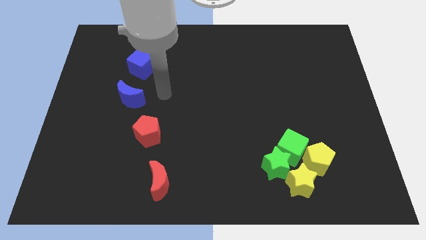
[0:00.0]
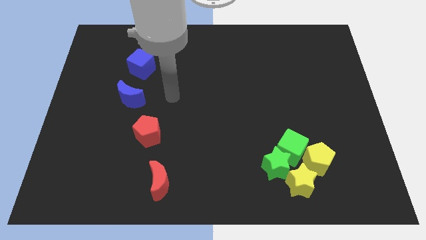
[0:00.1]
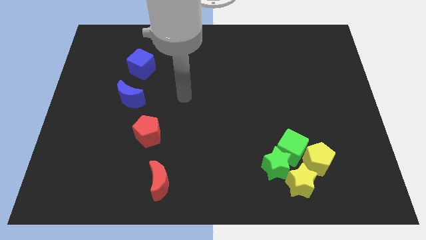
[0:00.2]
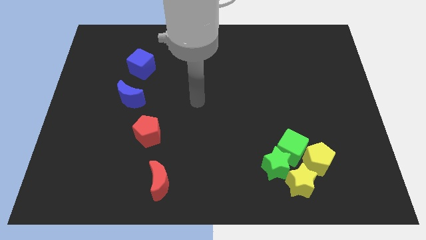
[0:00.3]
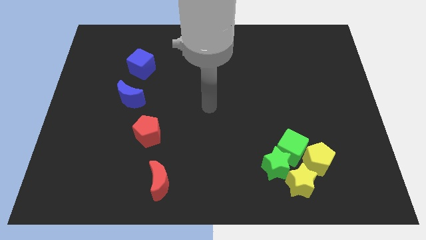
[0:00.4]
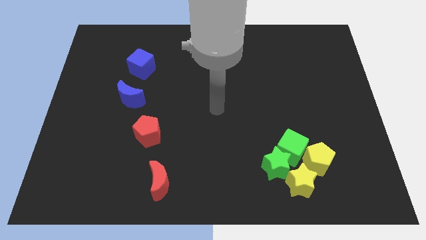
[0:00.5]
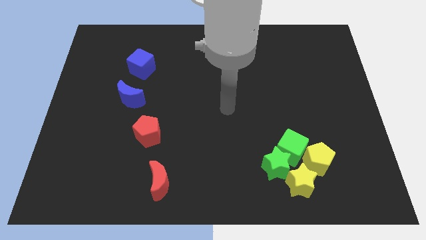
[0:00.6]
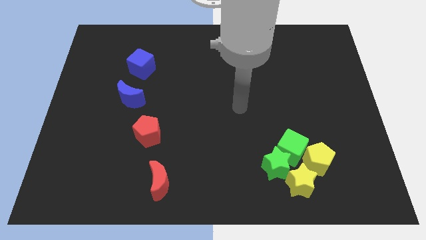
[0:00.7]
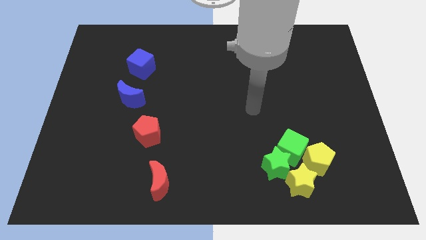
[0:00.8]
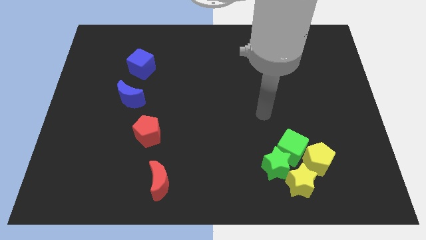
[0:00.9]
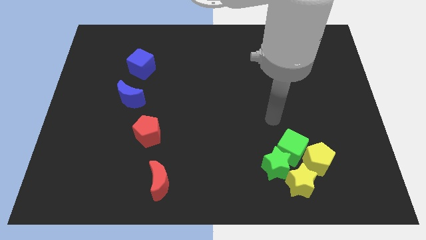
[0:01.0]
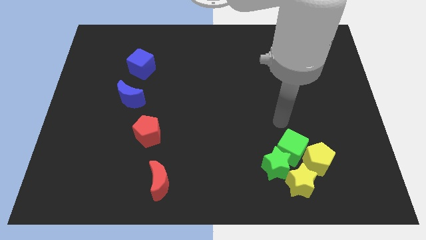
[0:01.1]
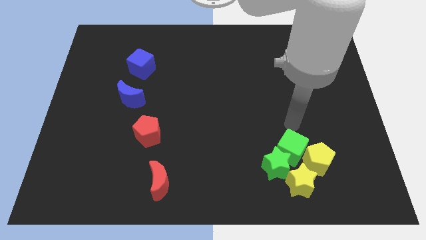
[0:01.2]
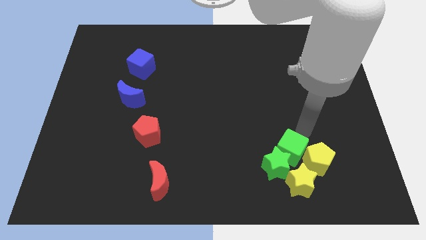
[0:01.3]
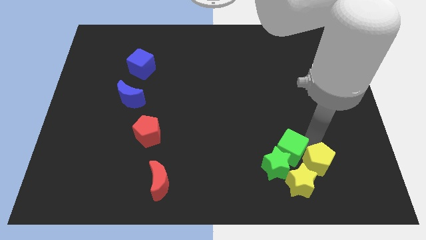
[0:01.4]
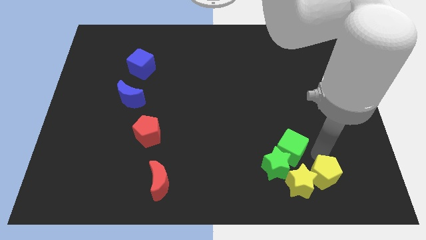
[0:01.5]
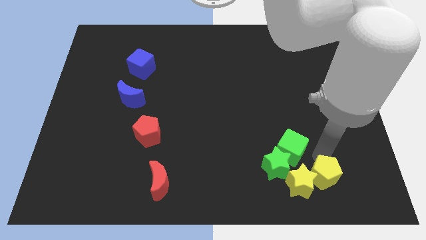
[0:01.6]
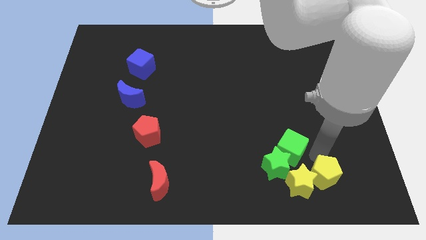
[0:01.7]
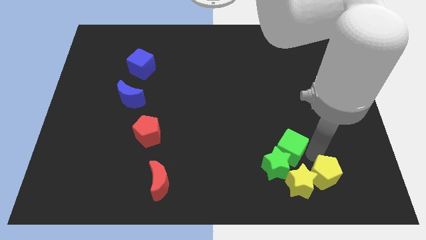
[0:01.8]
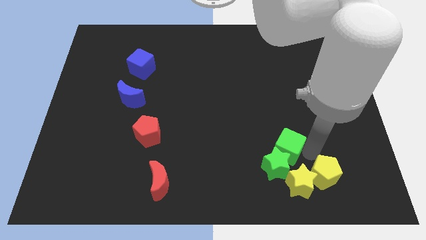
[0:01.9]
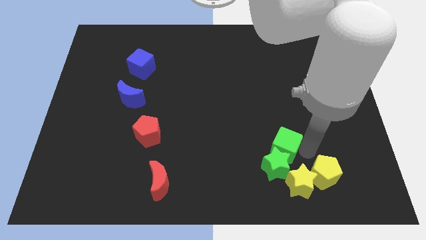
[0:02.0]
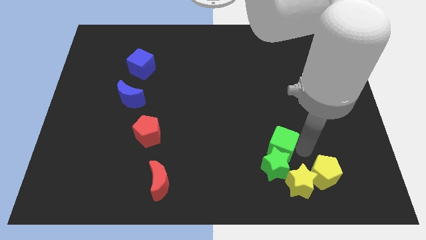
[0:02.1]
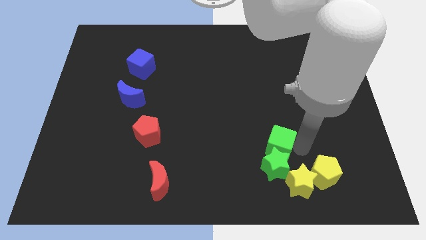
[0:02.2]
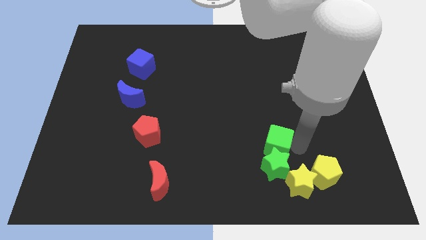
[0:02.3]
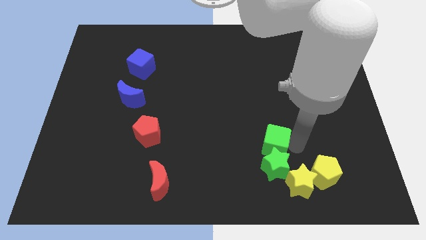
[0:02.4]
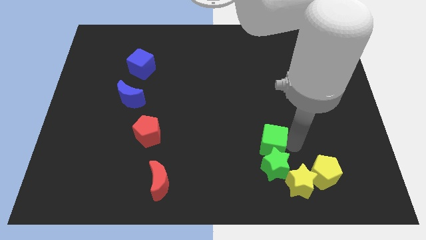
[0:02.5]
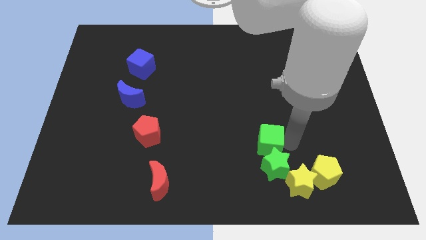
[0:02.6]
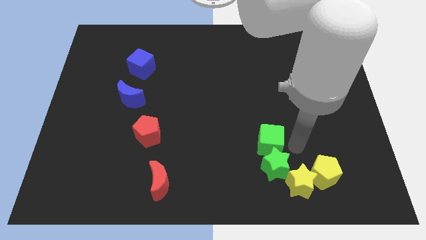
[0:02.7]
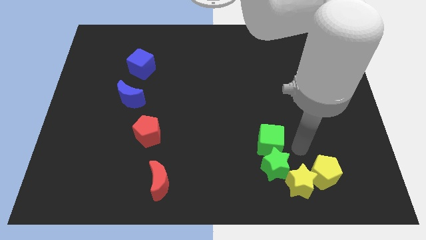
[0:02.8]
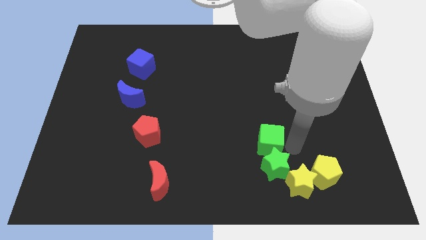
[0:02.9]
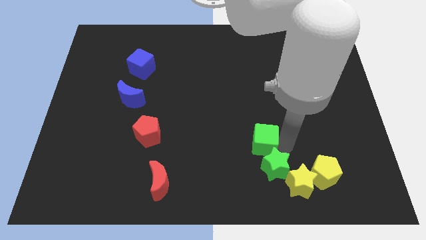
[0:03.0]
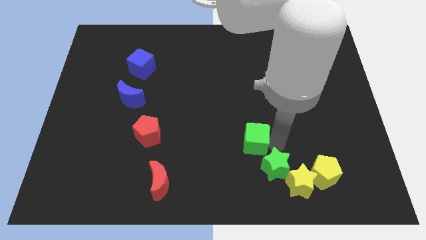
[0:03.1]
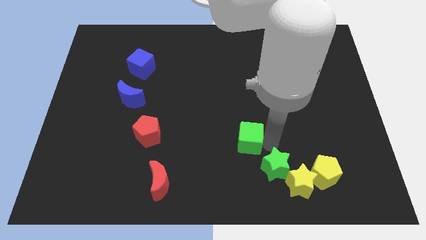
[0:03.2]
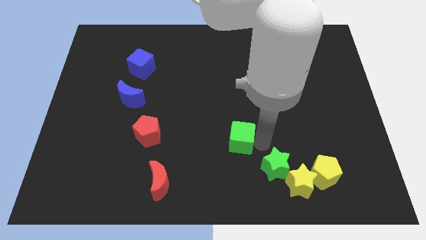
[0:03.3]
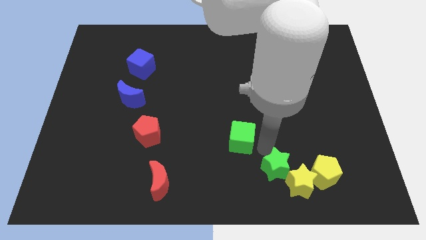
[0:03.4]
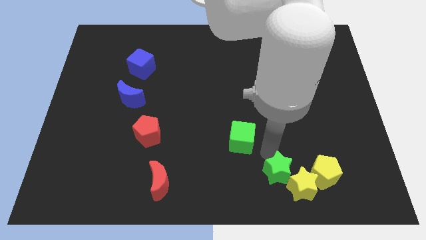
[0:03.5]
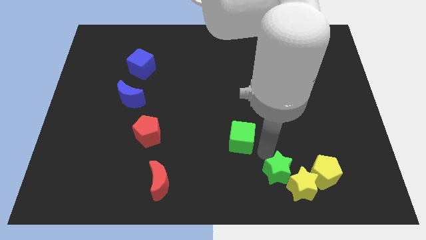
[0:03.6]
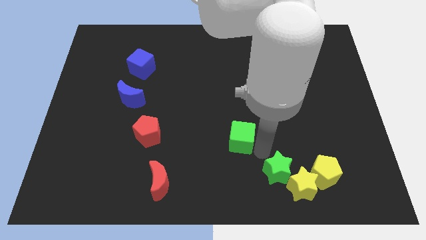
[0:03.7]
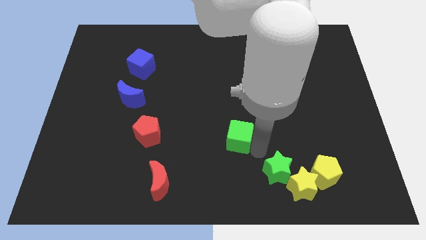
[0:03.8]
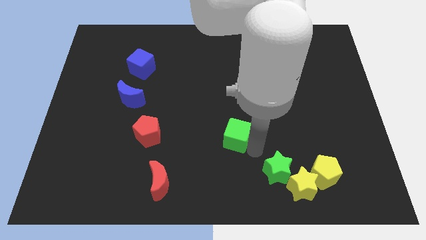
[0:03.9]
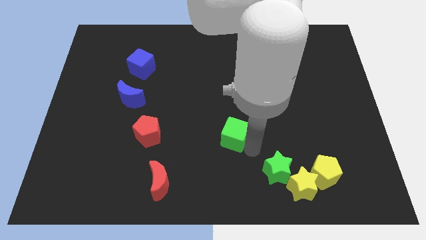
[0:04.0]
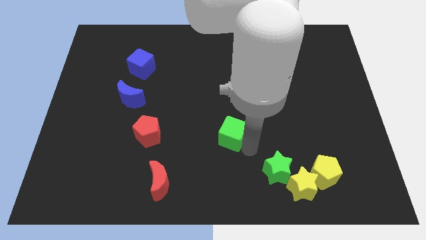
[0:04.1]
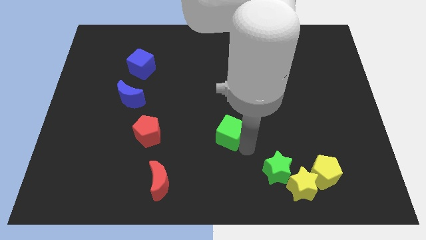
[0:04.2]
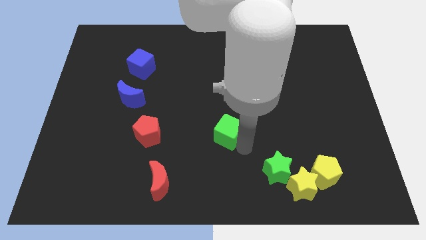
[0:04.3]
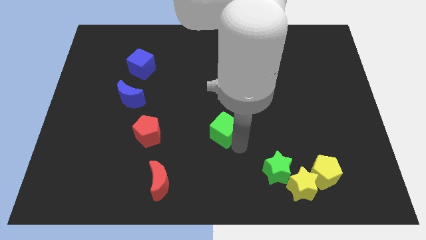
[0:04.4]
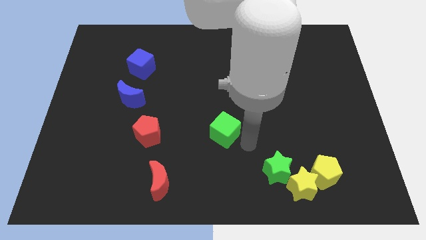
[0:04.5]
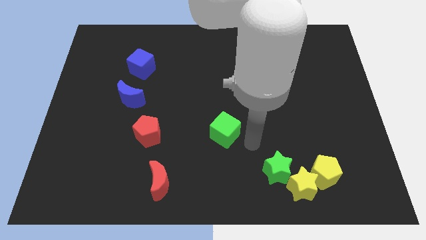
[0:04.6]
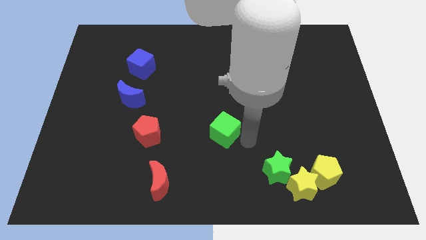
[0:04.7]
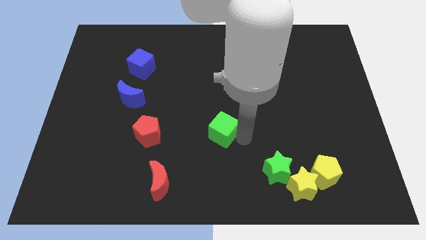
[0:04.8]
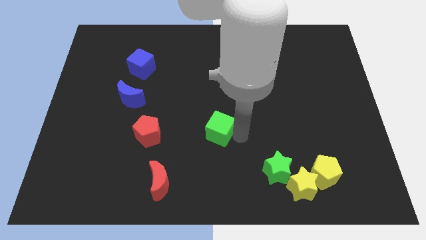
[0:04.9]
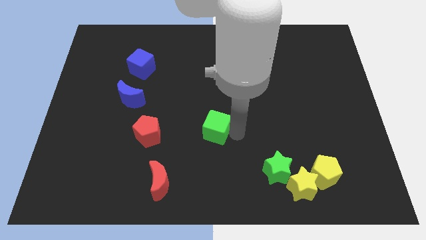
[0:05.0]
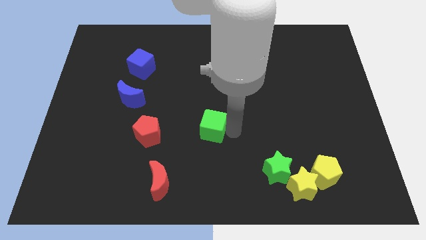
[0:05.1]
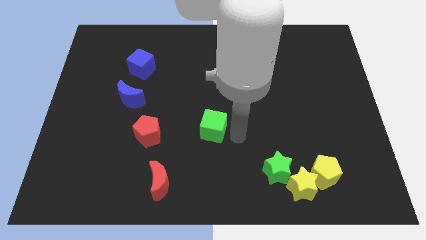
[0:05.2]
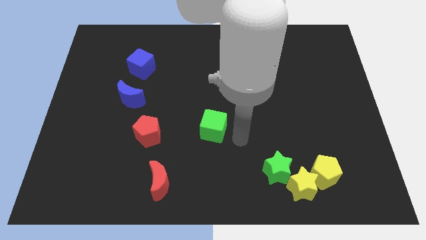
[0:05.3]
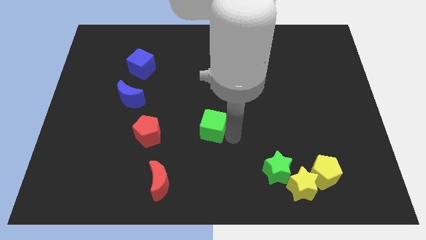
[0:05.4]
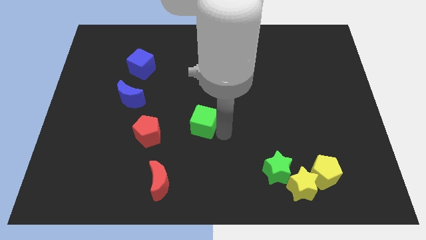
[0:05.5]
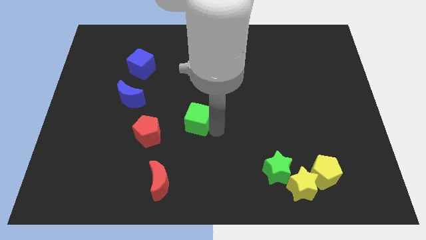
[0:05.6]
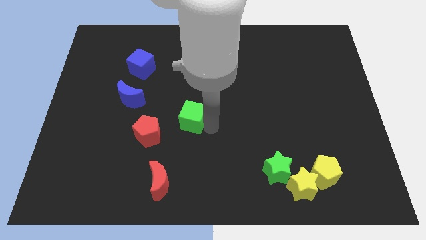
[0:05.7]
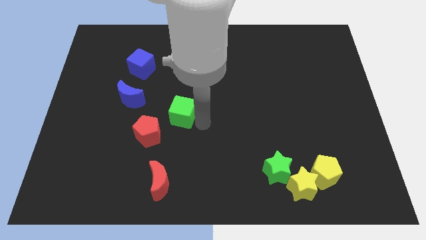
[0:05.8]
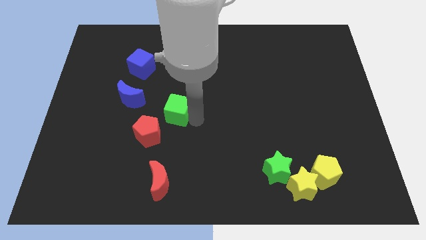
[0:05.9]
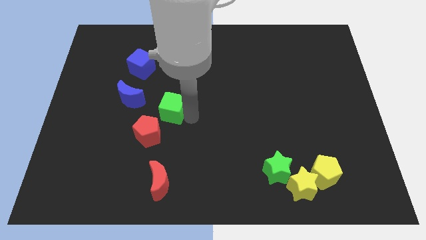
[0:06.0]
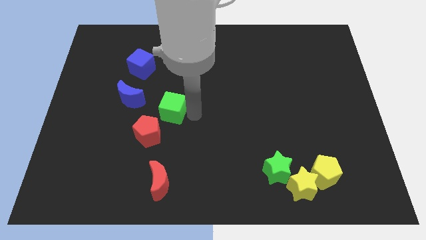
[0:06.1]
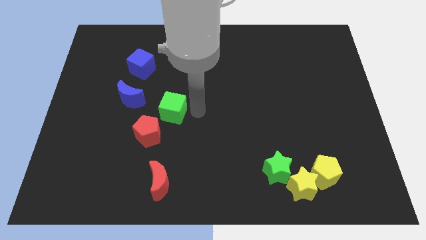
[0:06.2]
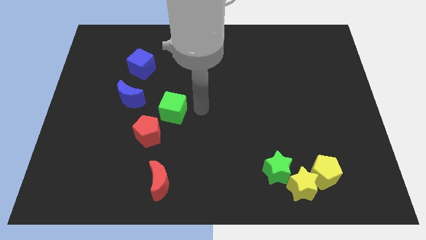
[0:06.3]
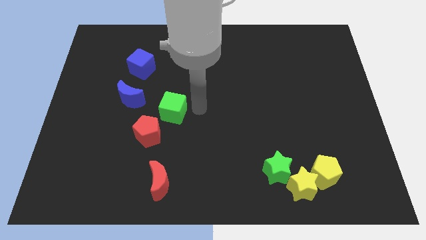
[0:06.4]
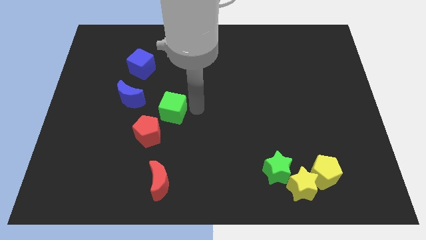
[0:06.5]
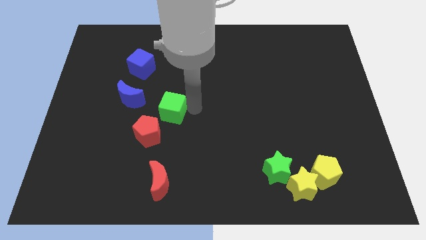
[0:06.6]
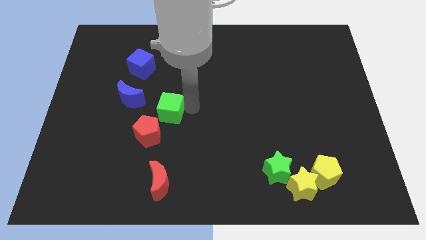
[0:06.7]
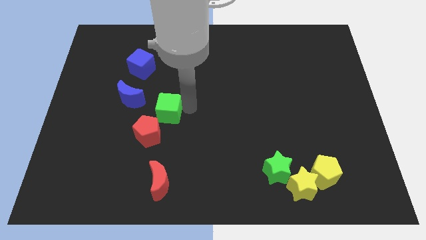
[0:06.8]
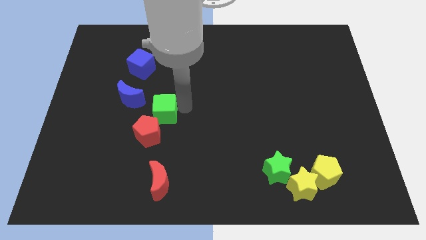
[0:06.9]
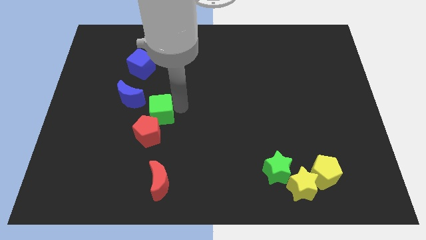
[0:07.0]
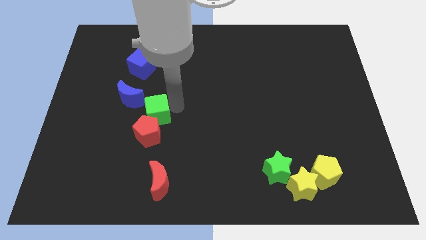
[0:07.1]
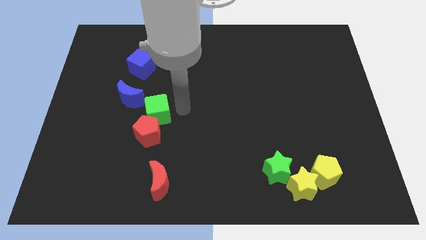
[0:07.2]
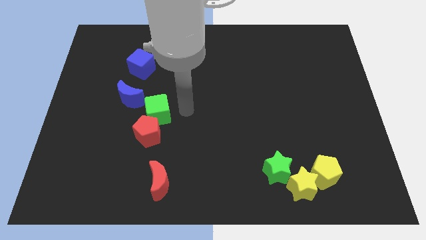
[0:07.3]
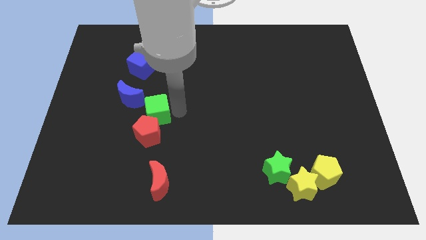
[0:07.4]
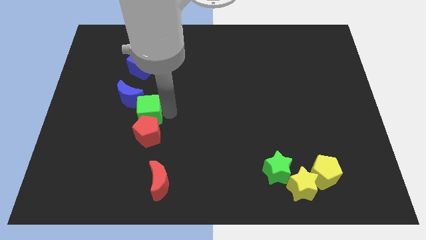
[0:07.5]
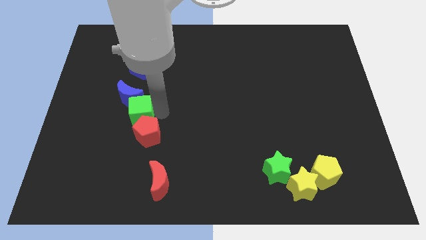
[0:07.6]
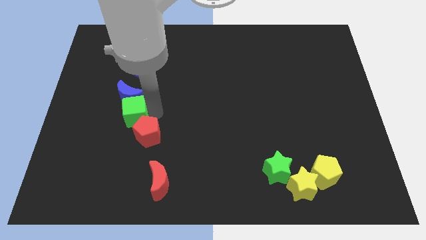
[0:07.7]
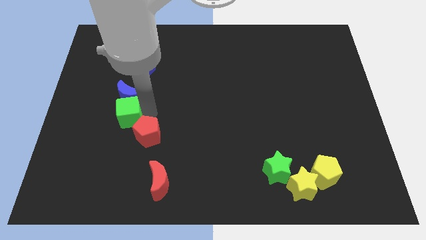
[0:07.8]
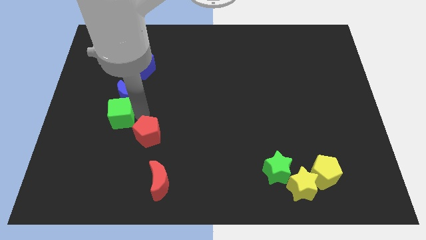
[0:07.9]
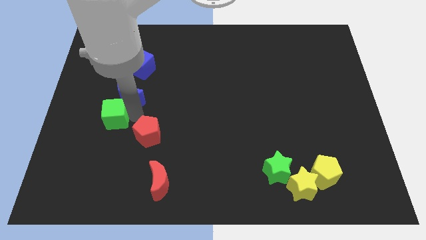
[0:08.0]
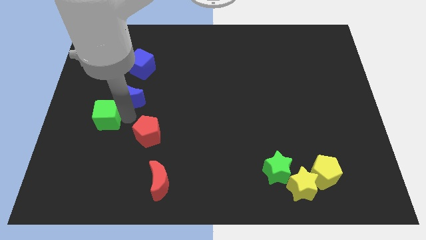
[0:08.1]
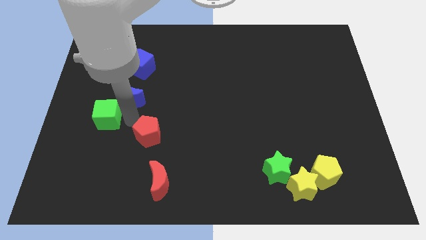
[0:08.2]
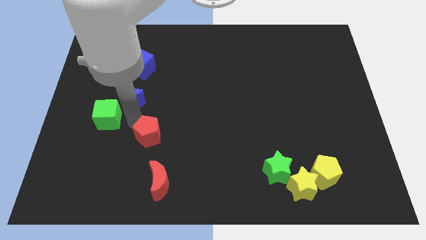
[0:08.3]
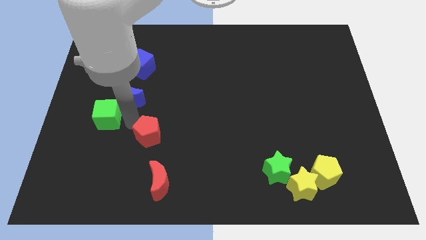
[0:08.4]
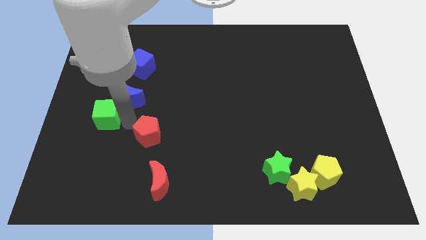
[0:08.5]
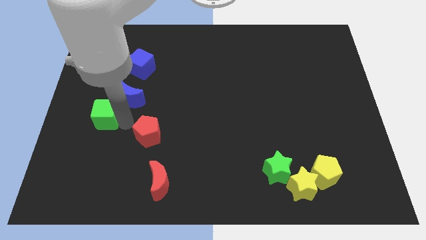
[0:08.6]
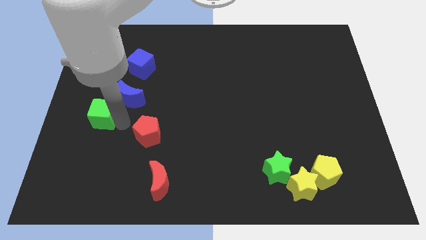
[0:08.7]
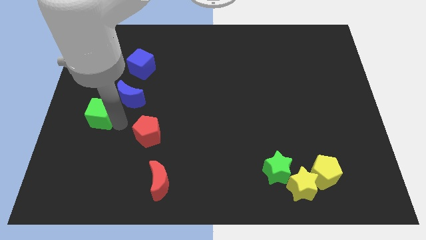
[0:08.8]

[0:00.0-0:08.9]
push the green cube to the left side of the board
